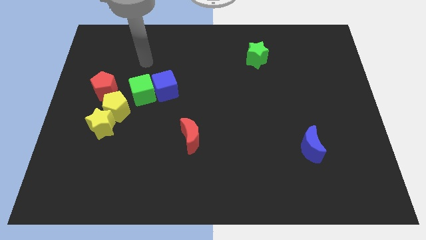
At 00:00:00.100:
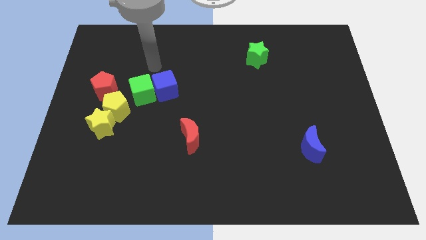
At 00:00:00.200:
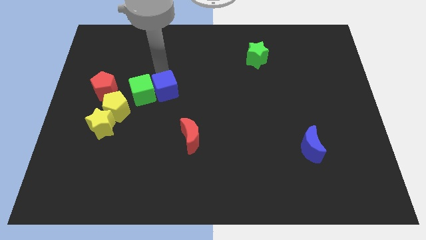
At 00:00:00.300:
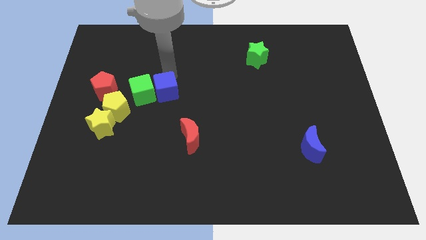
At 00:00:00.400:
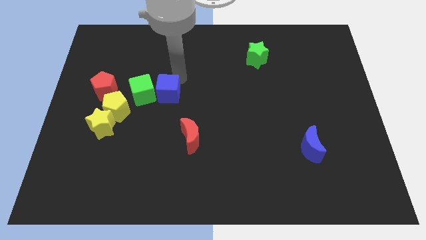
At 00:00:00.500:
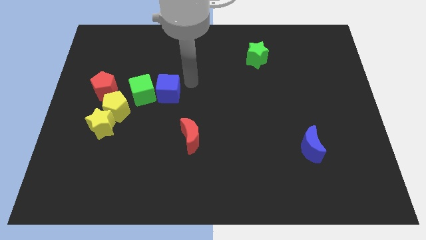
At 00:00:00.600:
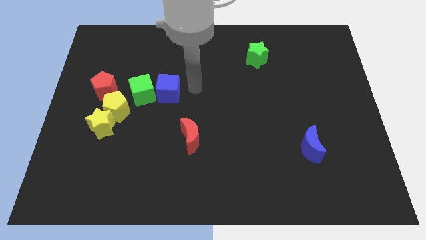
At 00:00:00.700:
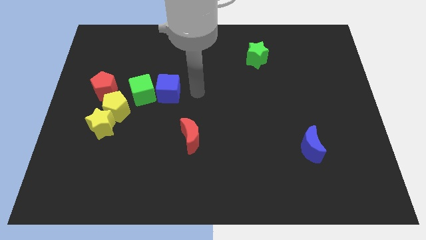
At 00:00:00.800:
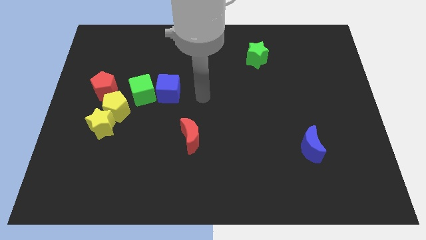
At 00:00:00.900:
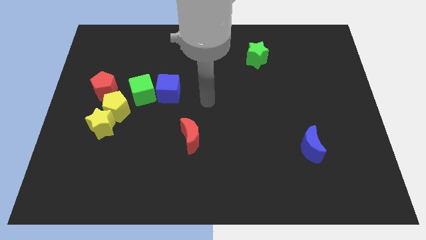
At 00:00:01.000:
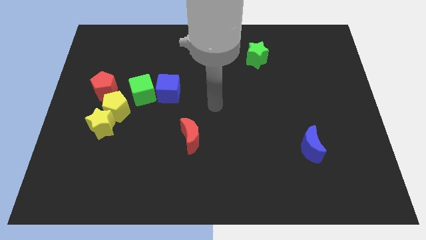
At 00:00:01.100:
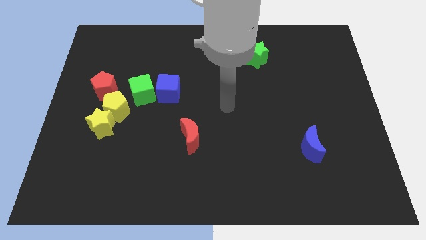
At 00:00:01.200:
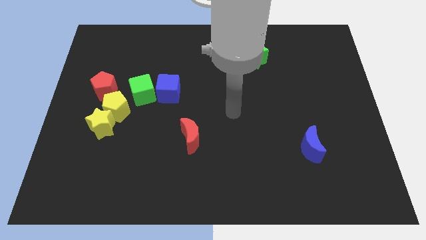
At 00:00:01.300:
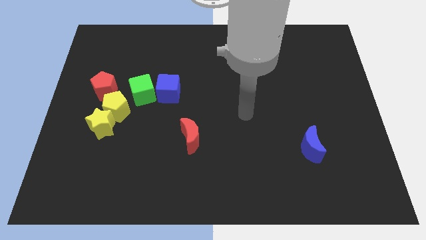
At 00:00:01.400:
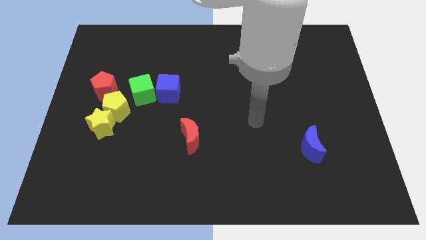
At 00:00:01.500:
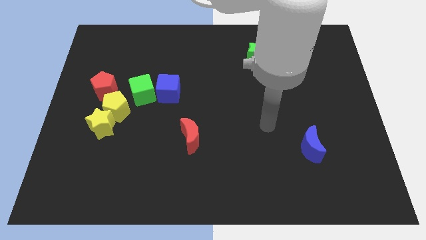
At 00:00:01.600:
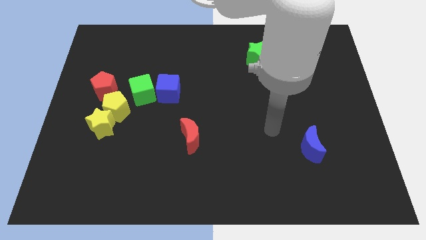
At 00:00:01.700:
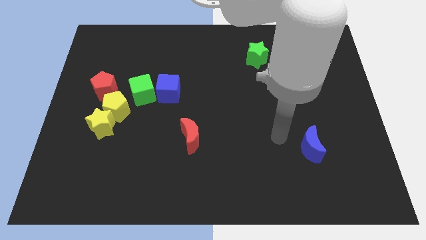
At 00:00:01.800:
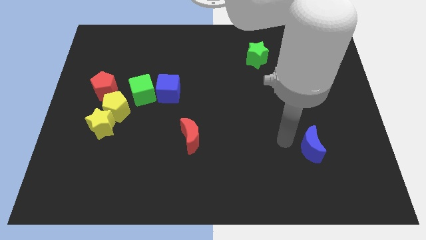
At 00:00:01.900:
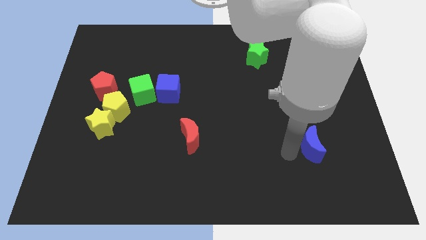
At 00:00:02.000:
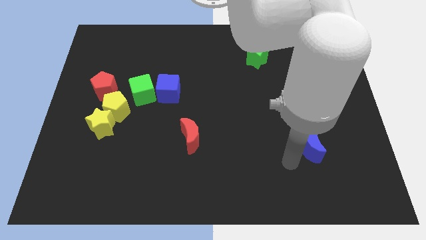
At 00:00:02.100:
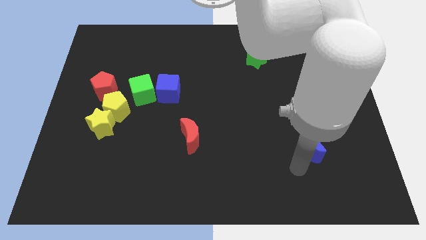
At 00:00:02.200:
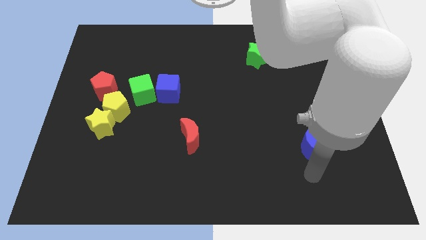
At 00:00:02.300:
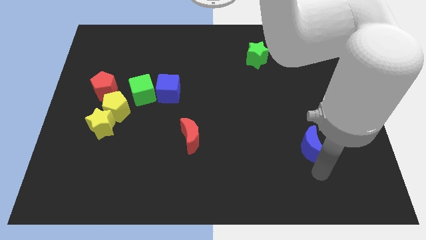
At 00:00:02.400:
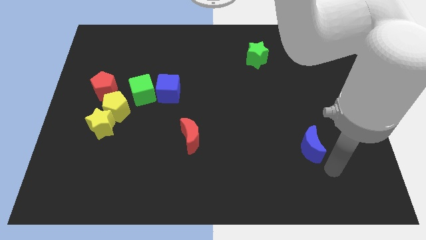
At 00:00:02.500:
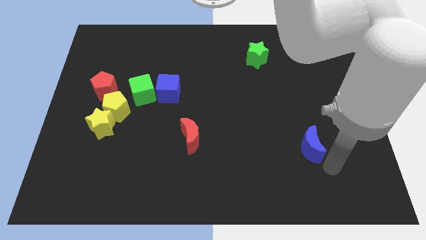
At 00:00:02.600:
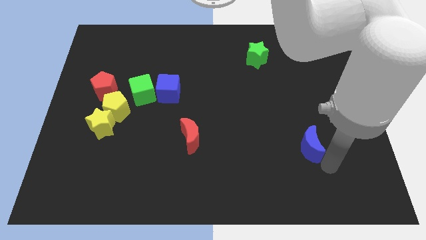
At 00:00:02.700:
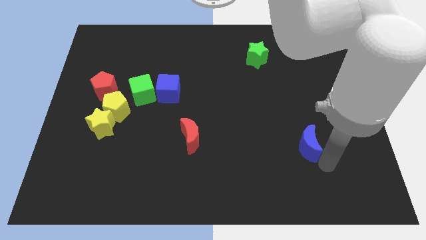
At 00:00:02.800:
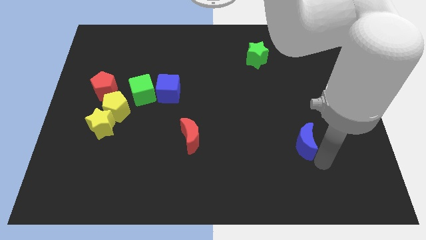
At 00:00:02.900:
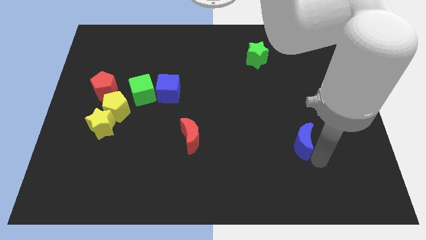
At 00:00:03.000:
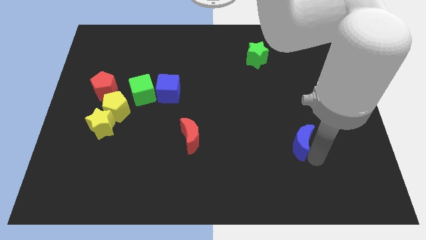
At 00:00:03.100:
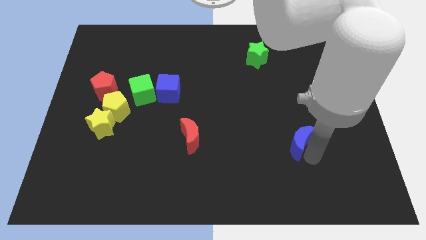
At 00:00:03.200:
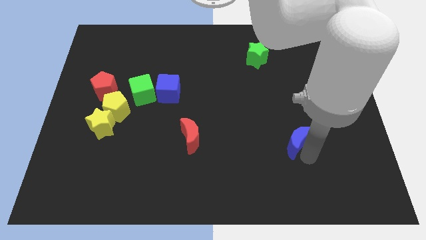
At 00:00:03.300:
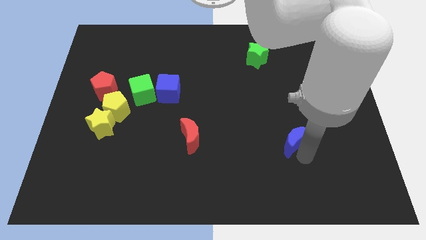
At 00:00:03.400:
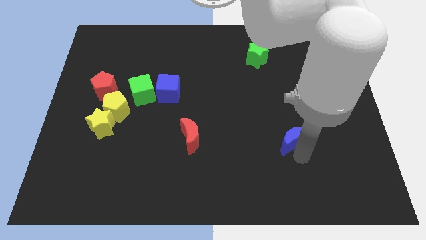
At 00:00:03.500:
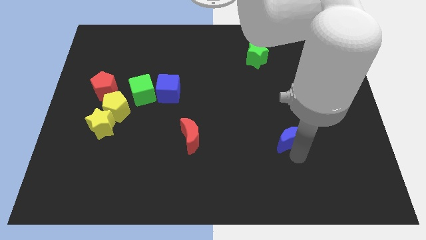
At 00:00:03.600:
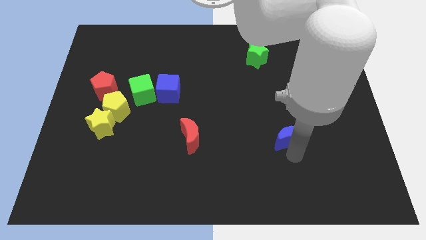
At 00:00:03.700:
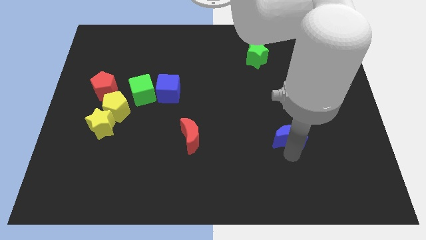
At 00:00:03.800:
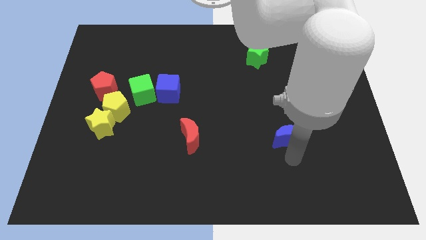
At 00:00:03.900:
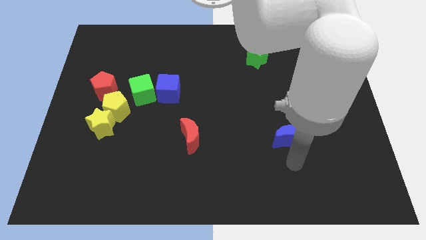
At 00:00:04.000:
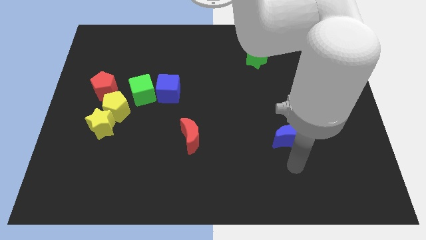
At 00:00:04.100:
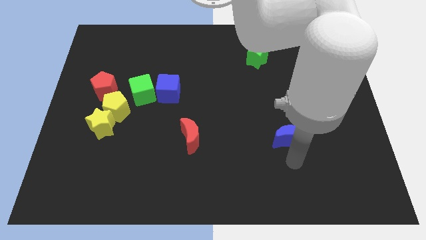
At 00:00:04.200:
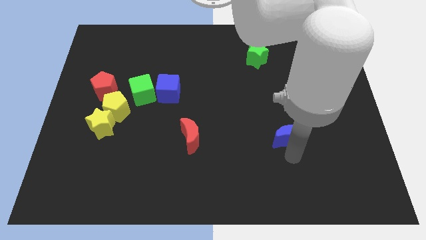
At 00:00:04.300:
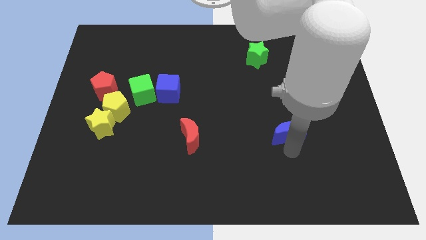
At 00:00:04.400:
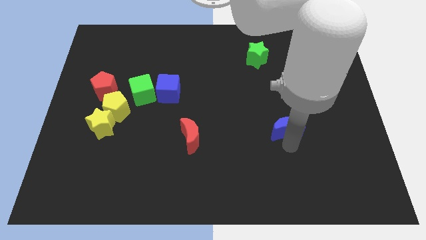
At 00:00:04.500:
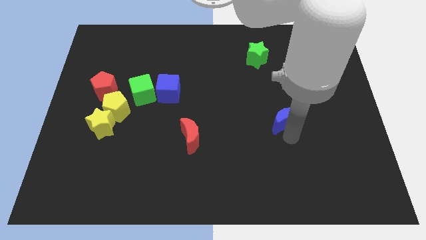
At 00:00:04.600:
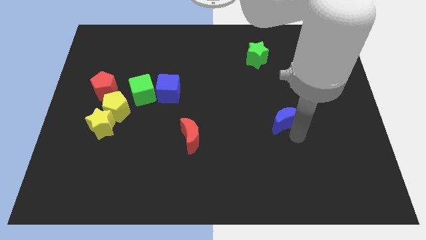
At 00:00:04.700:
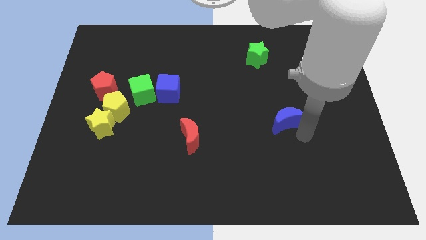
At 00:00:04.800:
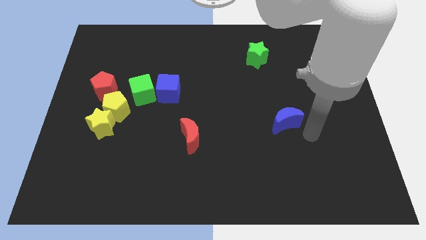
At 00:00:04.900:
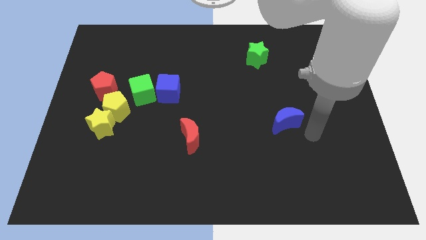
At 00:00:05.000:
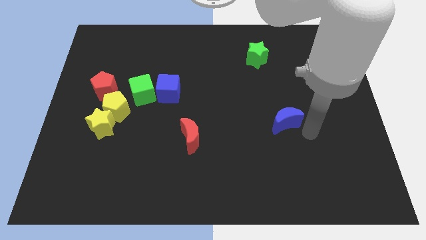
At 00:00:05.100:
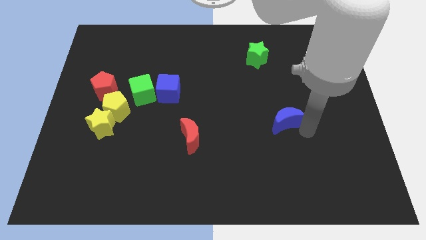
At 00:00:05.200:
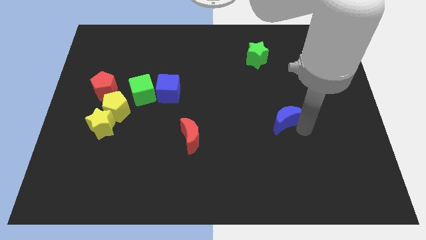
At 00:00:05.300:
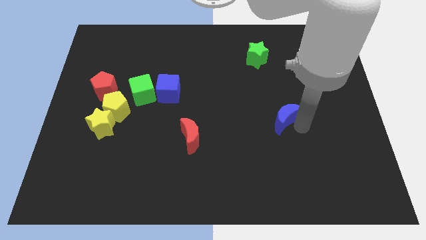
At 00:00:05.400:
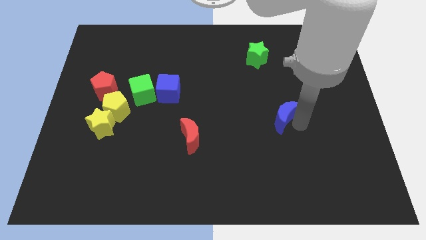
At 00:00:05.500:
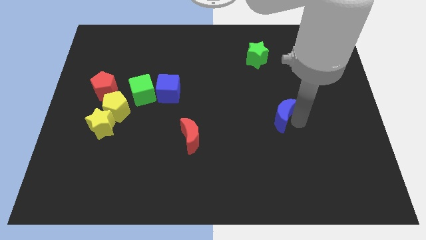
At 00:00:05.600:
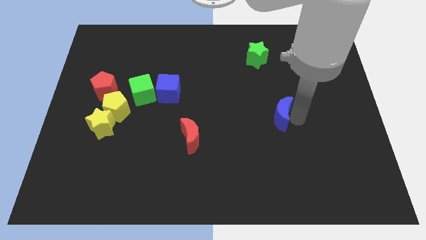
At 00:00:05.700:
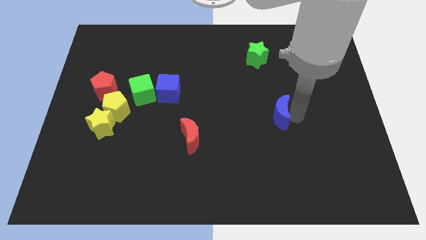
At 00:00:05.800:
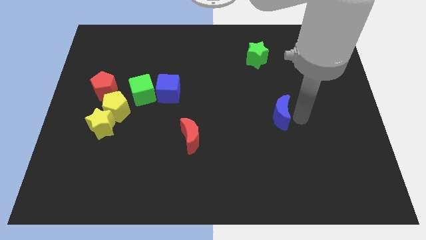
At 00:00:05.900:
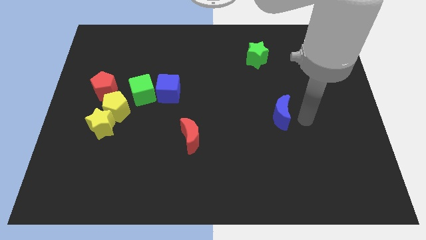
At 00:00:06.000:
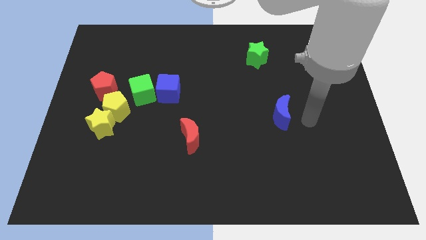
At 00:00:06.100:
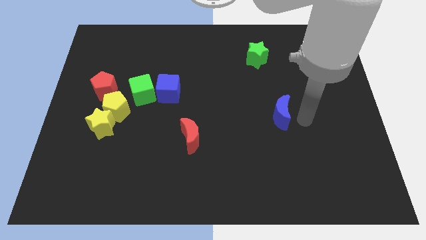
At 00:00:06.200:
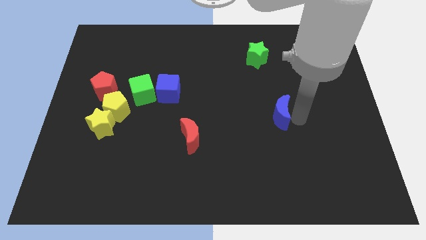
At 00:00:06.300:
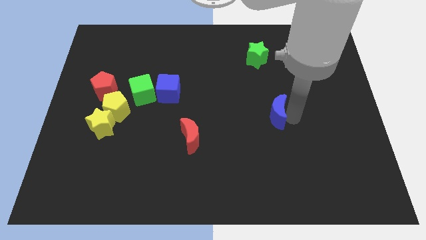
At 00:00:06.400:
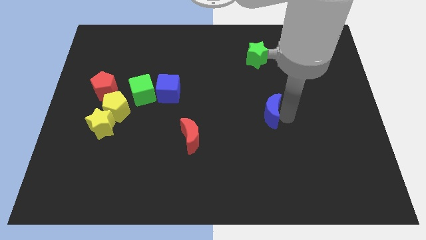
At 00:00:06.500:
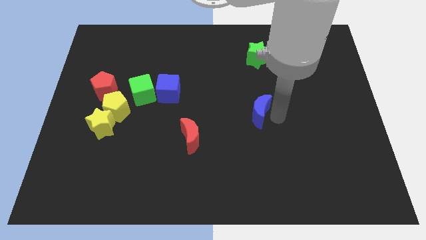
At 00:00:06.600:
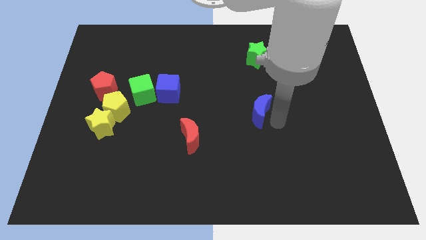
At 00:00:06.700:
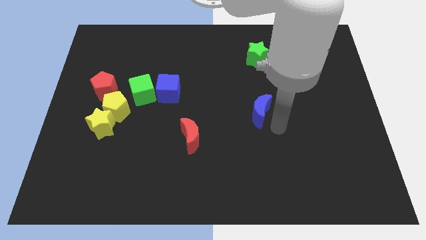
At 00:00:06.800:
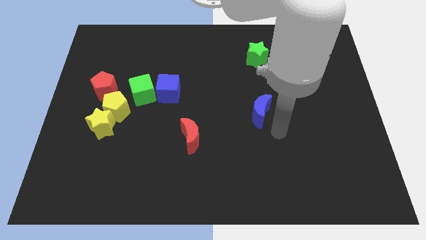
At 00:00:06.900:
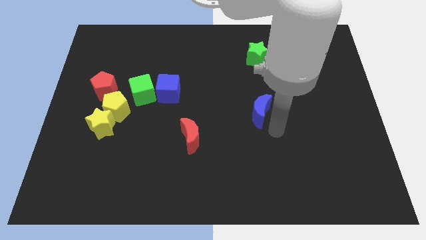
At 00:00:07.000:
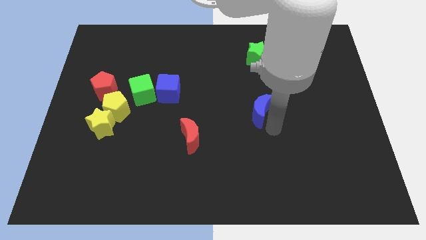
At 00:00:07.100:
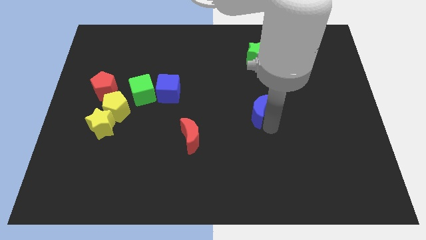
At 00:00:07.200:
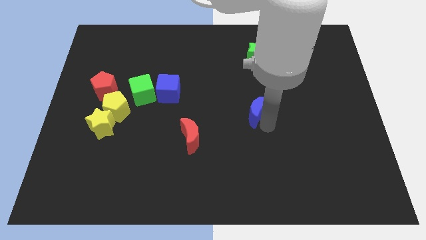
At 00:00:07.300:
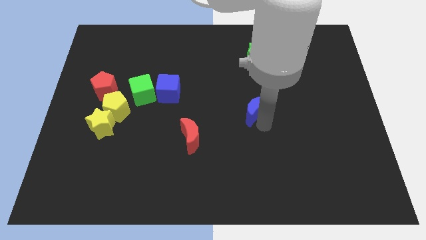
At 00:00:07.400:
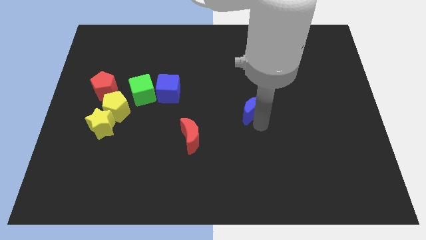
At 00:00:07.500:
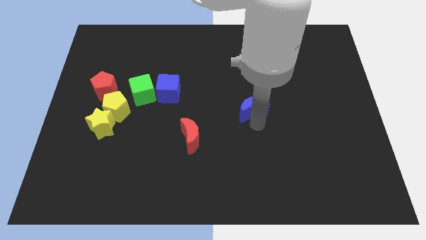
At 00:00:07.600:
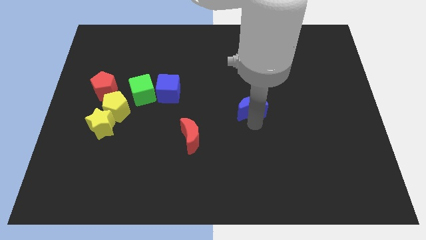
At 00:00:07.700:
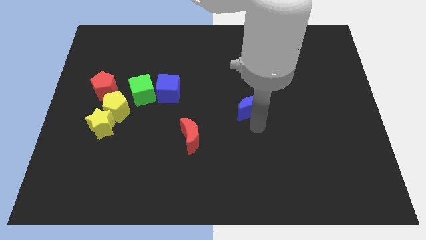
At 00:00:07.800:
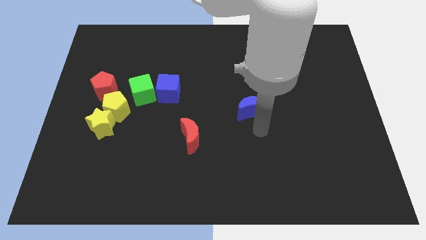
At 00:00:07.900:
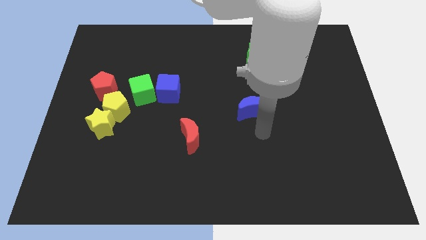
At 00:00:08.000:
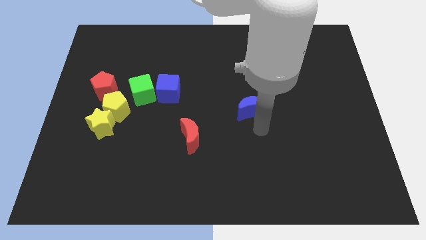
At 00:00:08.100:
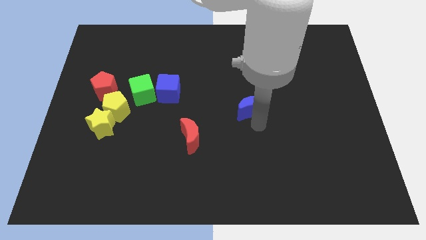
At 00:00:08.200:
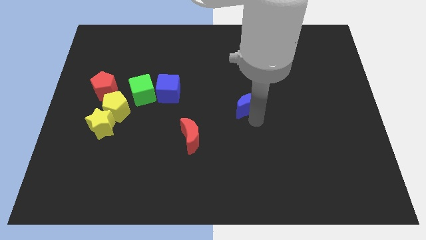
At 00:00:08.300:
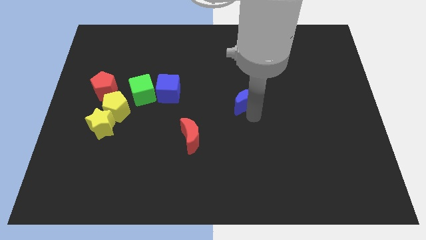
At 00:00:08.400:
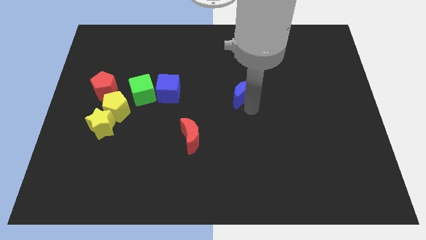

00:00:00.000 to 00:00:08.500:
push the blue moon up and then left
